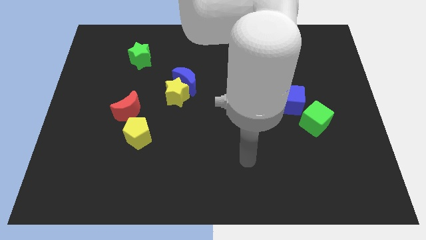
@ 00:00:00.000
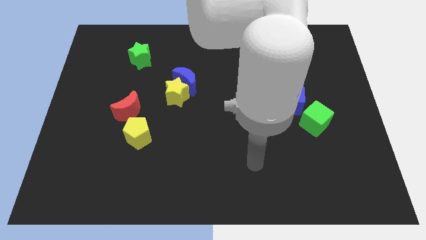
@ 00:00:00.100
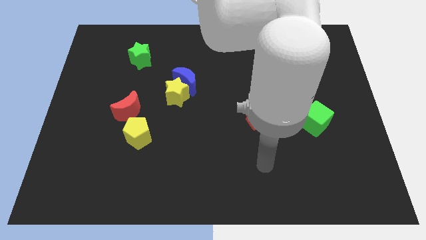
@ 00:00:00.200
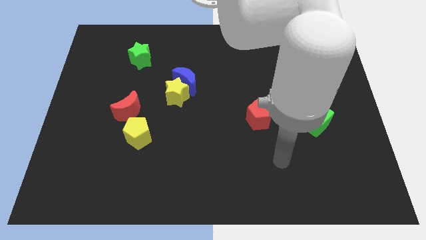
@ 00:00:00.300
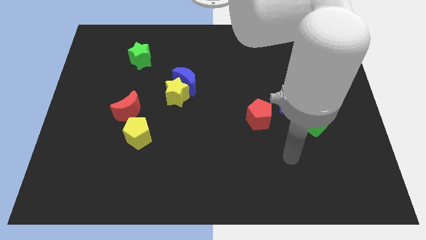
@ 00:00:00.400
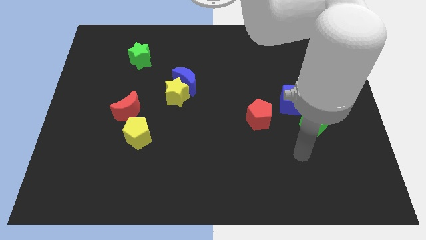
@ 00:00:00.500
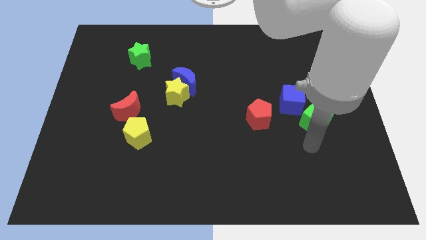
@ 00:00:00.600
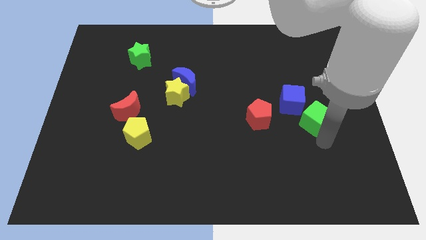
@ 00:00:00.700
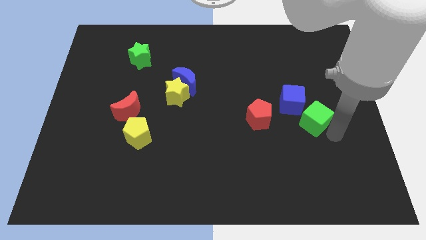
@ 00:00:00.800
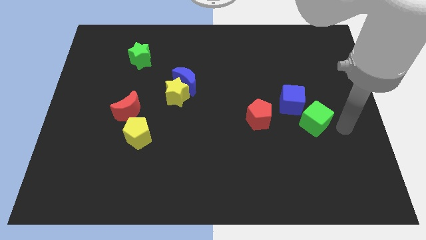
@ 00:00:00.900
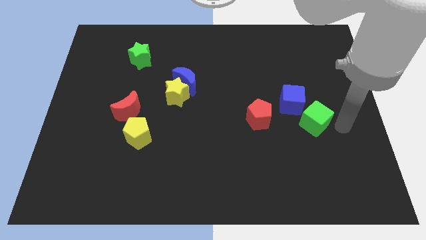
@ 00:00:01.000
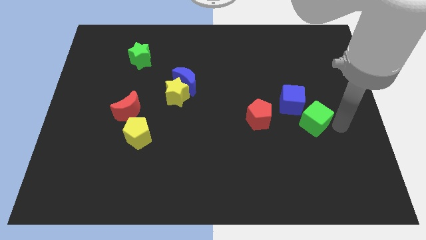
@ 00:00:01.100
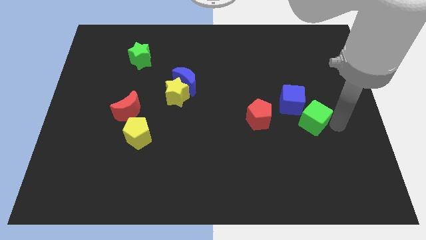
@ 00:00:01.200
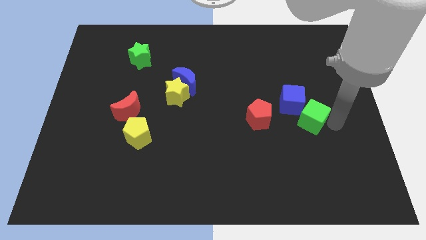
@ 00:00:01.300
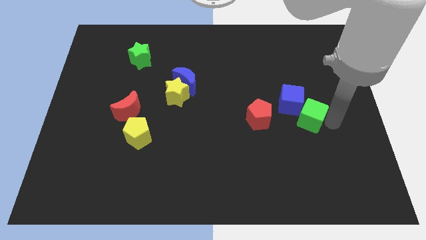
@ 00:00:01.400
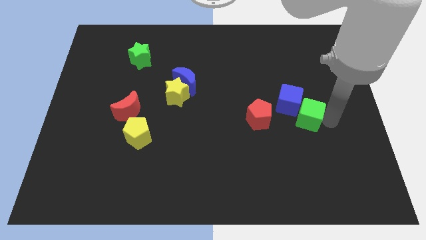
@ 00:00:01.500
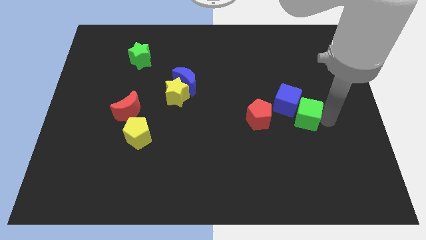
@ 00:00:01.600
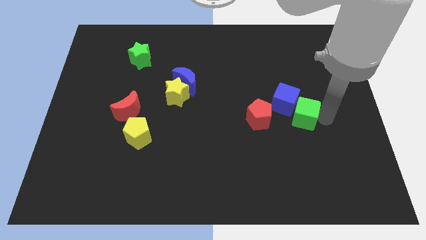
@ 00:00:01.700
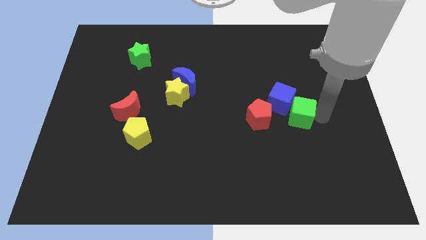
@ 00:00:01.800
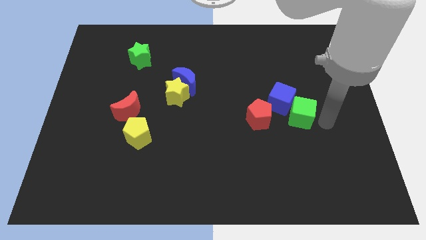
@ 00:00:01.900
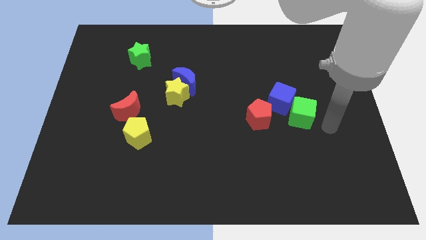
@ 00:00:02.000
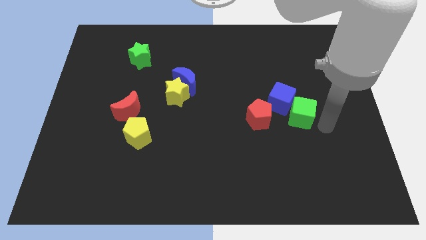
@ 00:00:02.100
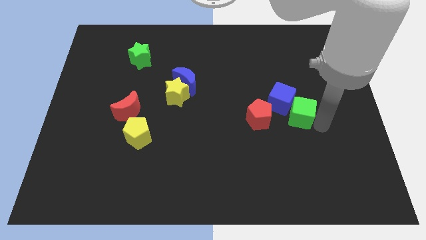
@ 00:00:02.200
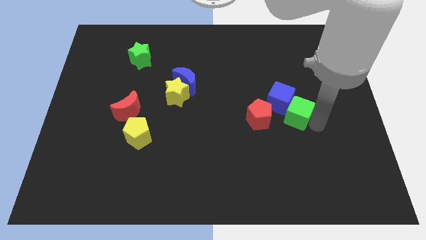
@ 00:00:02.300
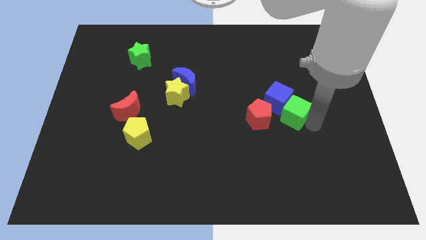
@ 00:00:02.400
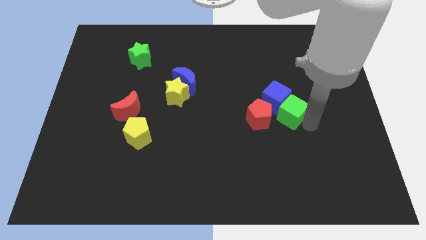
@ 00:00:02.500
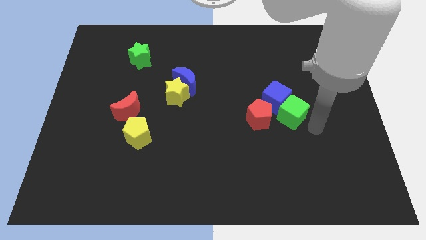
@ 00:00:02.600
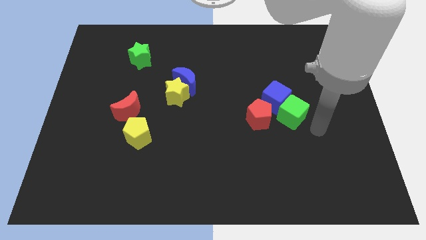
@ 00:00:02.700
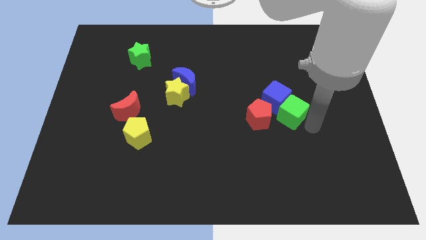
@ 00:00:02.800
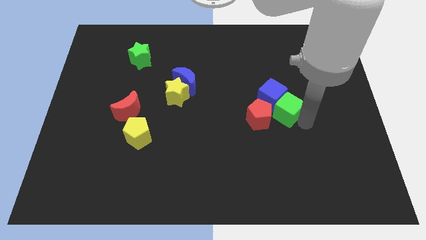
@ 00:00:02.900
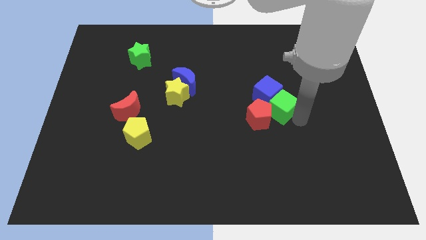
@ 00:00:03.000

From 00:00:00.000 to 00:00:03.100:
slightly slide the green cube up and left diagonally

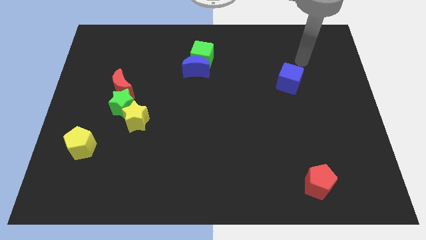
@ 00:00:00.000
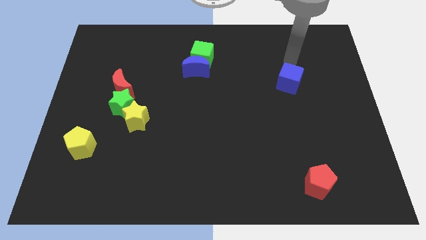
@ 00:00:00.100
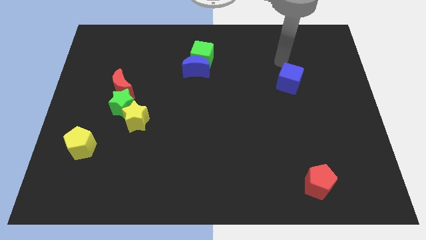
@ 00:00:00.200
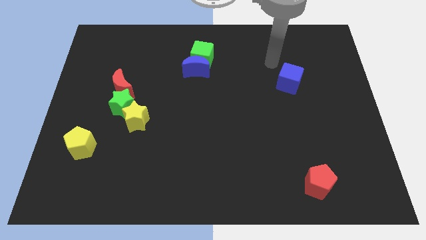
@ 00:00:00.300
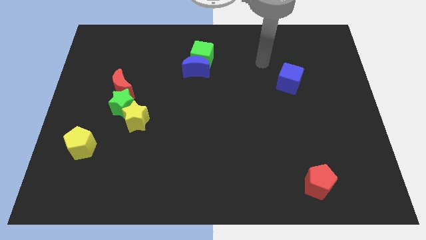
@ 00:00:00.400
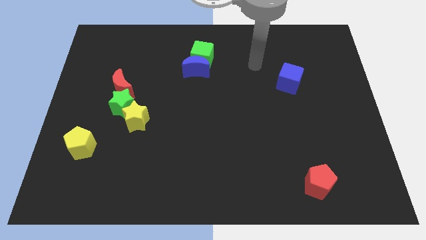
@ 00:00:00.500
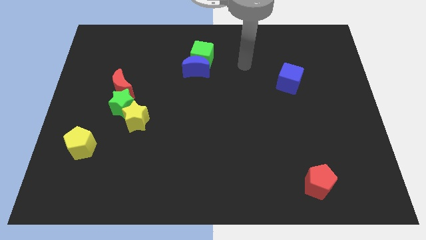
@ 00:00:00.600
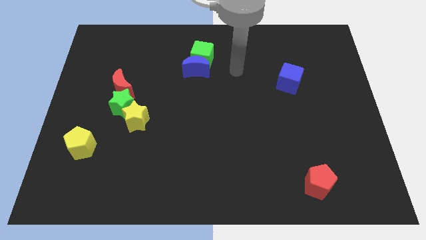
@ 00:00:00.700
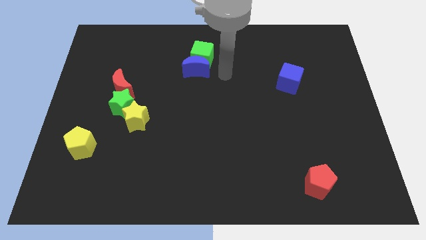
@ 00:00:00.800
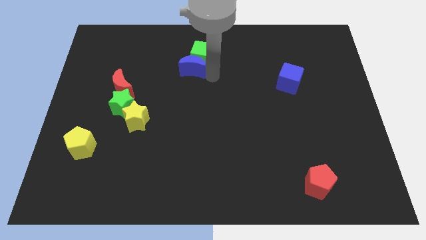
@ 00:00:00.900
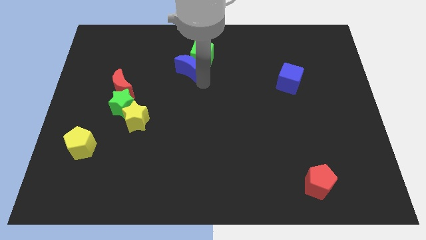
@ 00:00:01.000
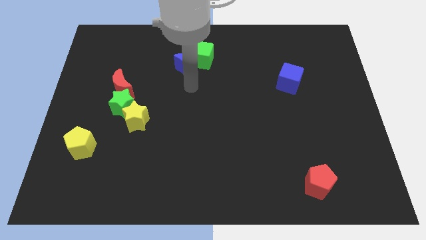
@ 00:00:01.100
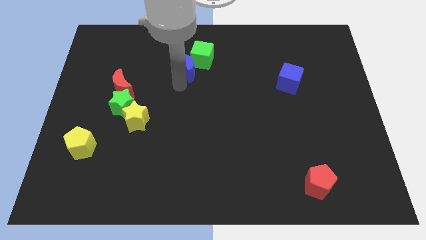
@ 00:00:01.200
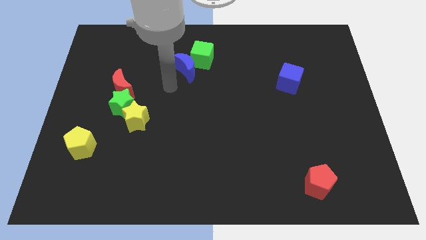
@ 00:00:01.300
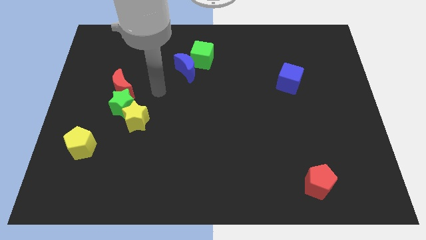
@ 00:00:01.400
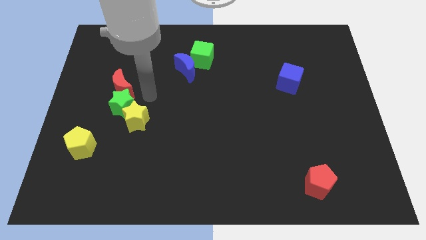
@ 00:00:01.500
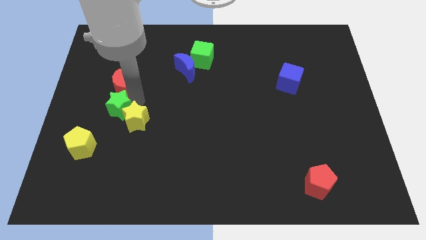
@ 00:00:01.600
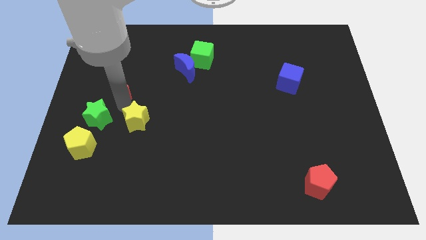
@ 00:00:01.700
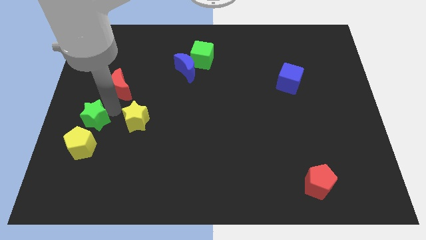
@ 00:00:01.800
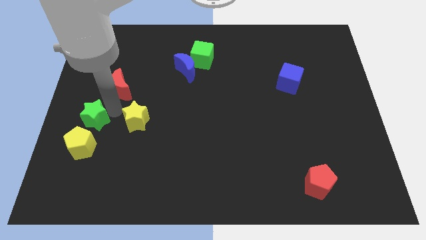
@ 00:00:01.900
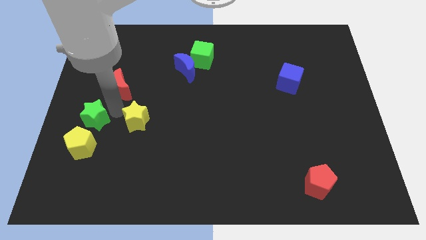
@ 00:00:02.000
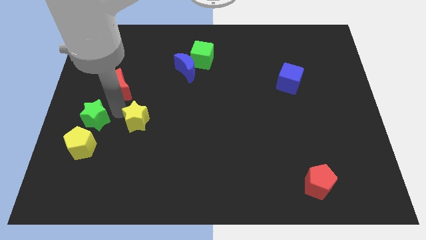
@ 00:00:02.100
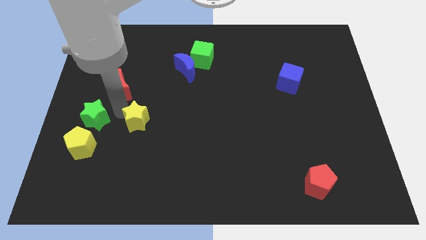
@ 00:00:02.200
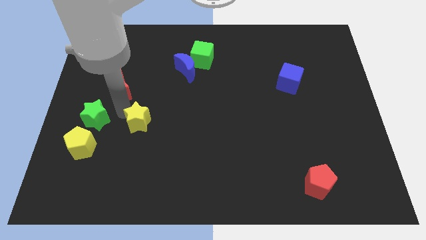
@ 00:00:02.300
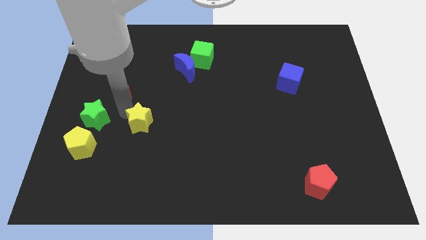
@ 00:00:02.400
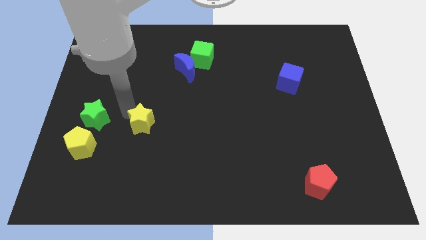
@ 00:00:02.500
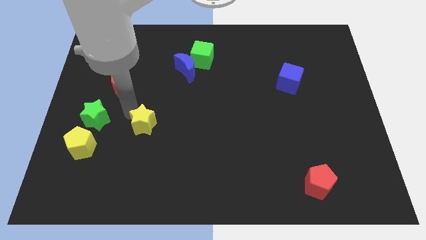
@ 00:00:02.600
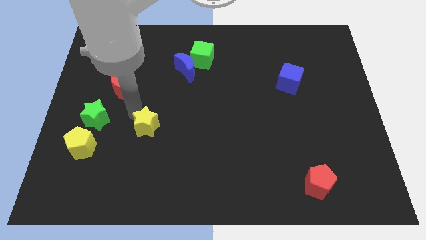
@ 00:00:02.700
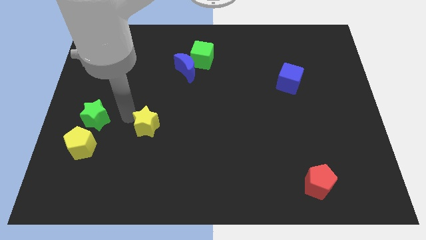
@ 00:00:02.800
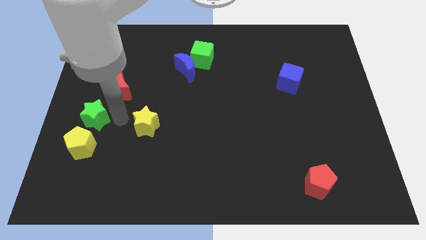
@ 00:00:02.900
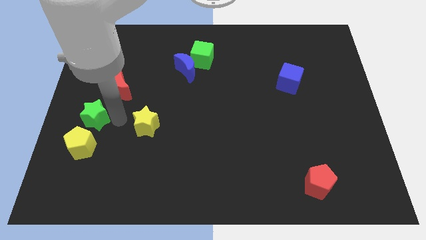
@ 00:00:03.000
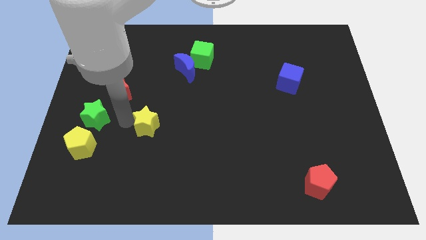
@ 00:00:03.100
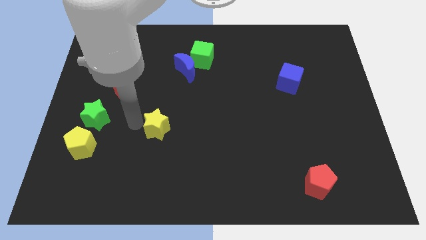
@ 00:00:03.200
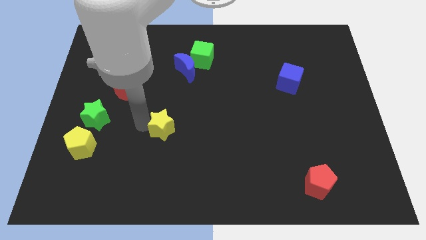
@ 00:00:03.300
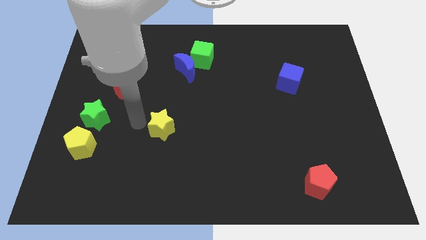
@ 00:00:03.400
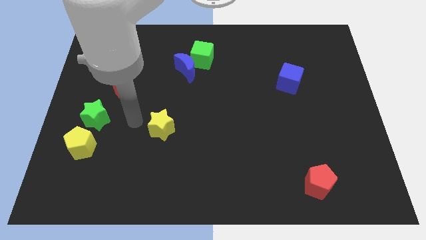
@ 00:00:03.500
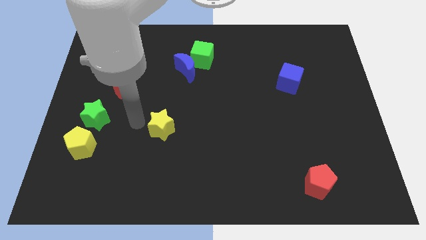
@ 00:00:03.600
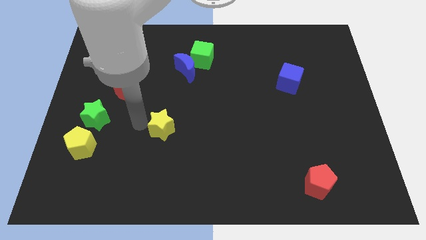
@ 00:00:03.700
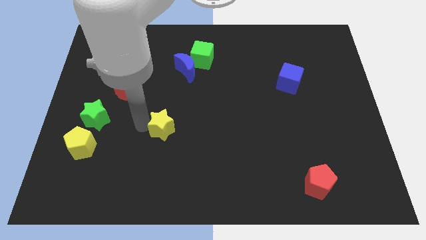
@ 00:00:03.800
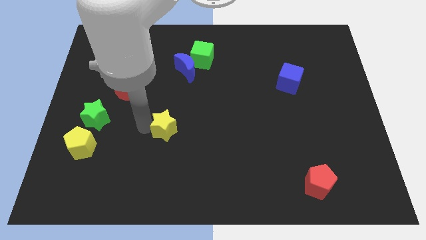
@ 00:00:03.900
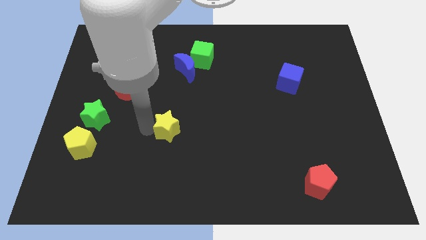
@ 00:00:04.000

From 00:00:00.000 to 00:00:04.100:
push the yellow star a little bit to the right

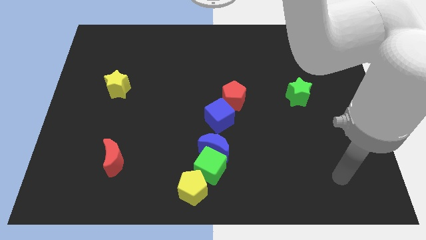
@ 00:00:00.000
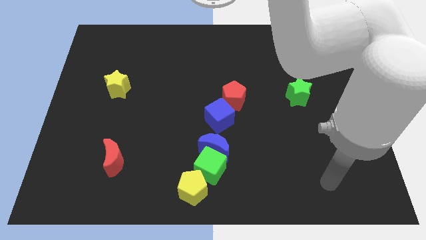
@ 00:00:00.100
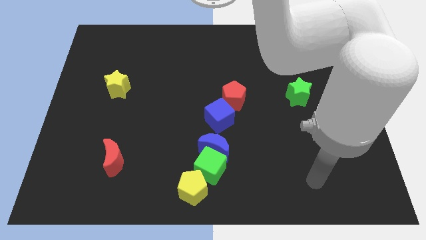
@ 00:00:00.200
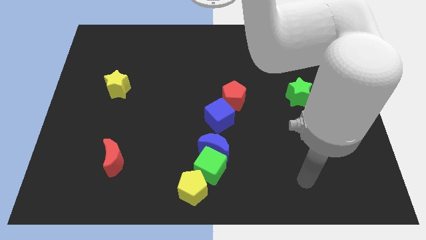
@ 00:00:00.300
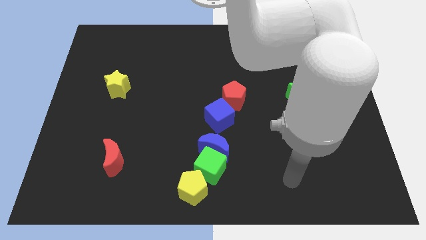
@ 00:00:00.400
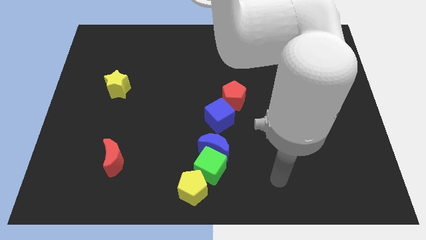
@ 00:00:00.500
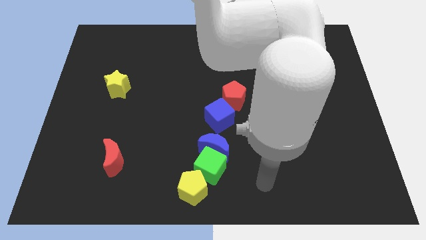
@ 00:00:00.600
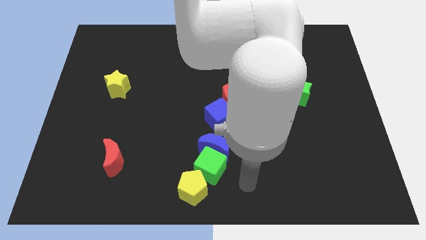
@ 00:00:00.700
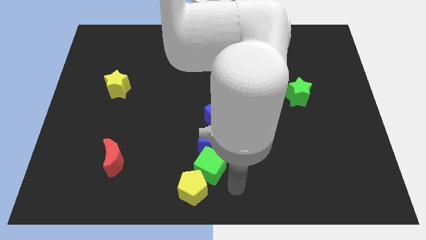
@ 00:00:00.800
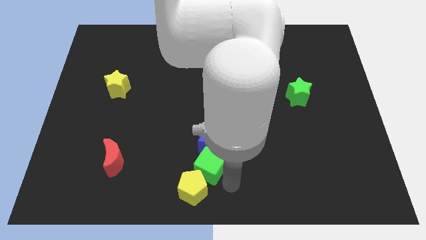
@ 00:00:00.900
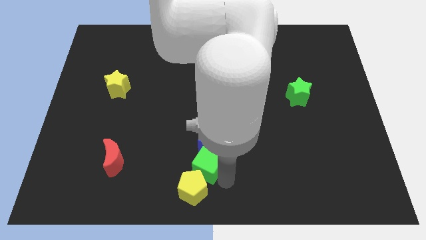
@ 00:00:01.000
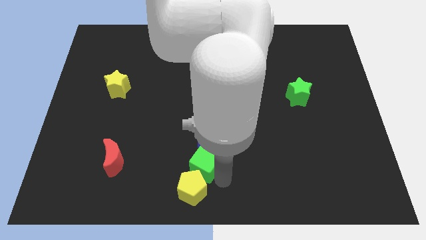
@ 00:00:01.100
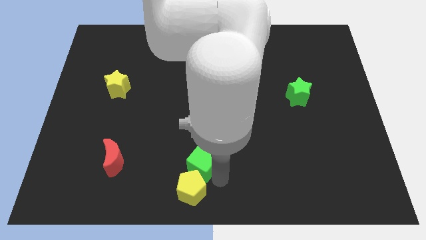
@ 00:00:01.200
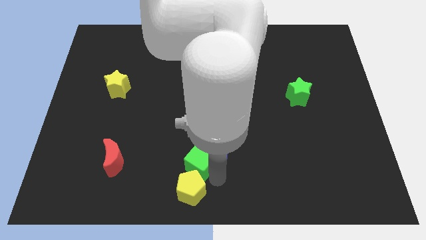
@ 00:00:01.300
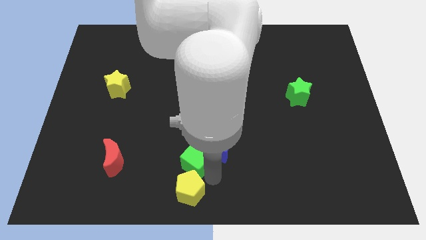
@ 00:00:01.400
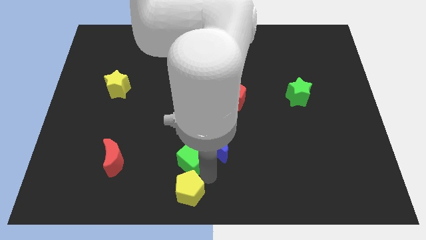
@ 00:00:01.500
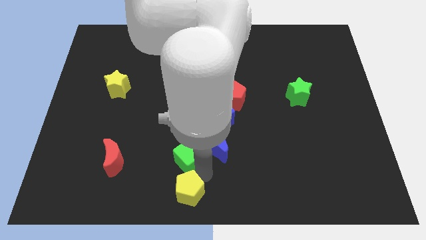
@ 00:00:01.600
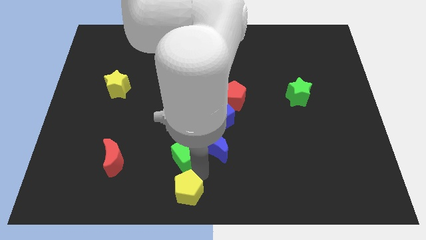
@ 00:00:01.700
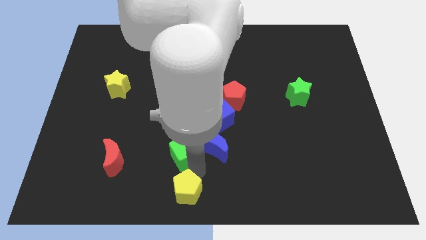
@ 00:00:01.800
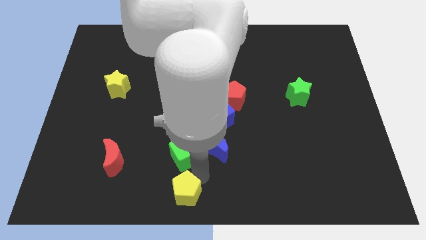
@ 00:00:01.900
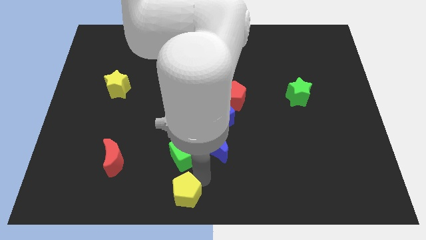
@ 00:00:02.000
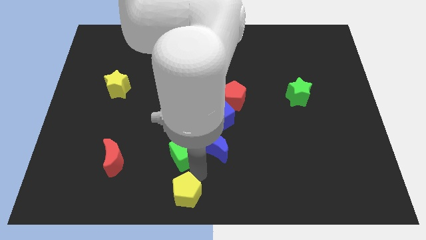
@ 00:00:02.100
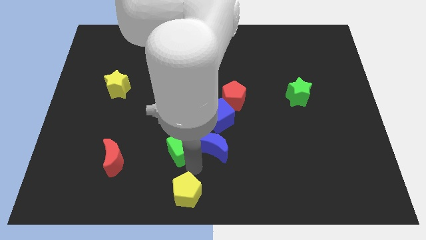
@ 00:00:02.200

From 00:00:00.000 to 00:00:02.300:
move the green cube upwards and left diagonally somewhat
